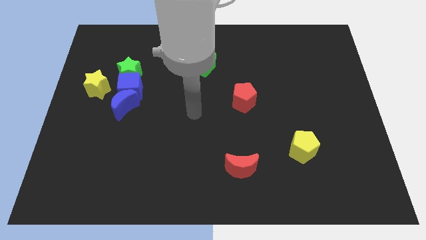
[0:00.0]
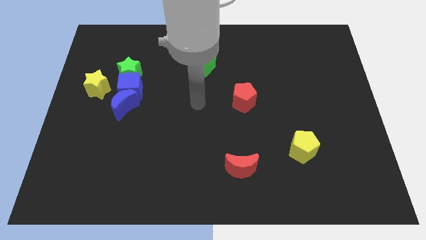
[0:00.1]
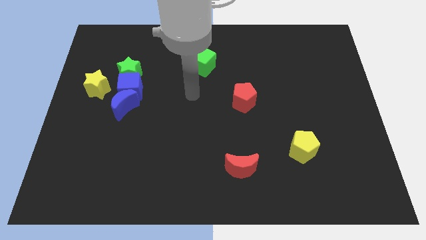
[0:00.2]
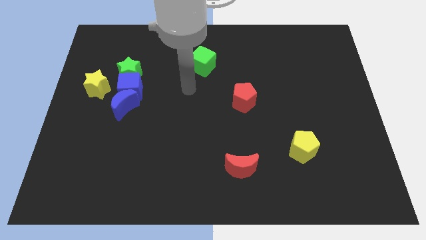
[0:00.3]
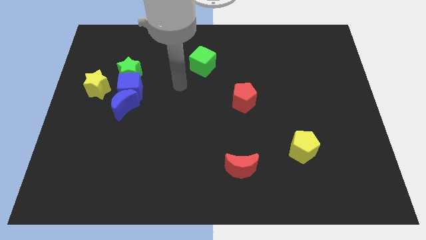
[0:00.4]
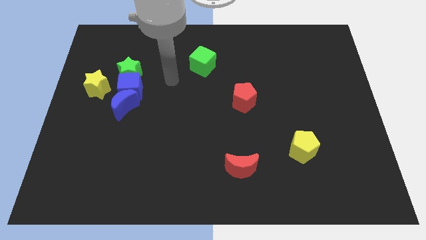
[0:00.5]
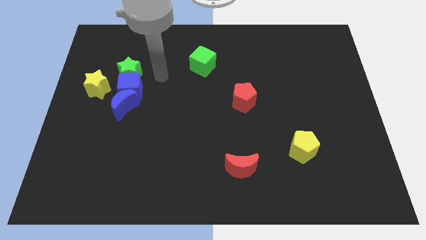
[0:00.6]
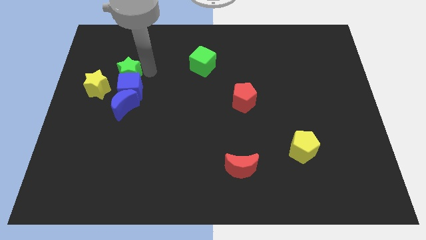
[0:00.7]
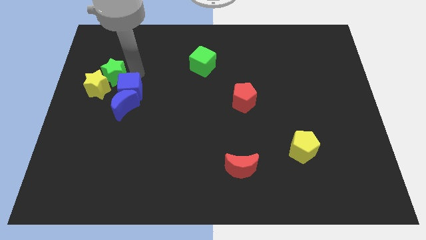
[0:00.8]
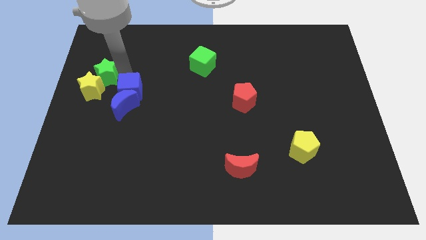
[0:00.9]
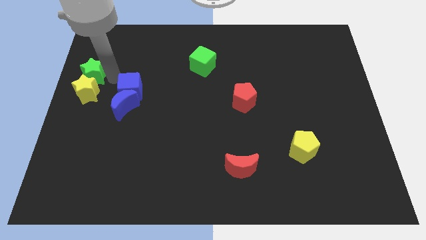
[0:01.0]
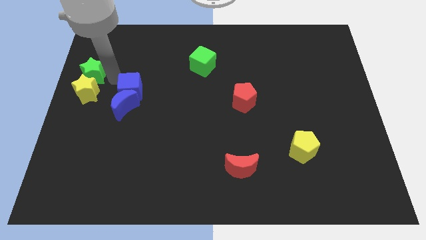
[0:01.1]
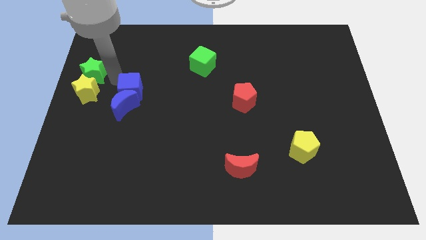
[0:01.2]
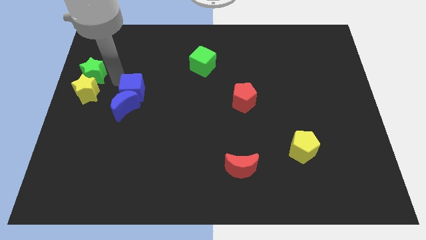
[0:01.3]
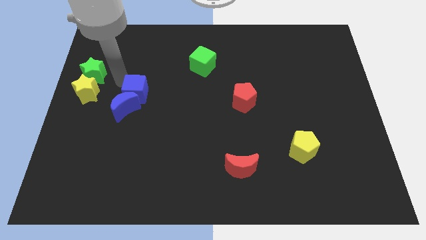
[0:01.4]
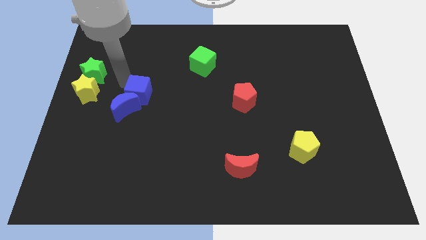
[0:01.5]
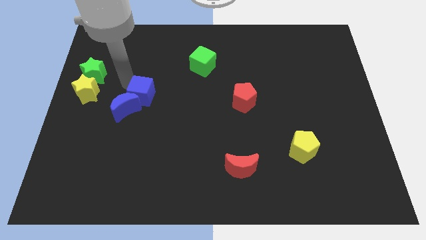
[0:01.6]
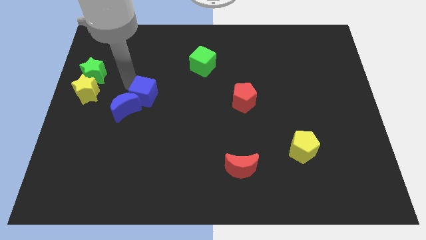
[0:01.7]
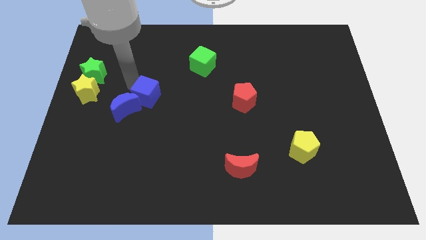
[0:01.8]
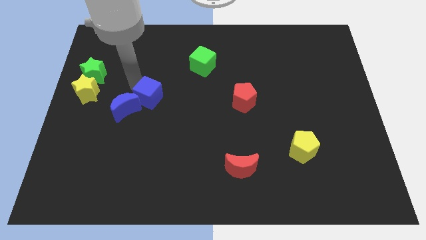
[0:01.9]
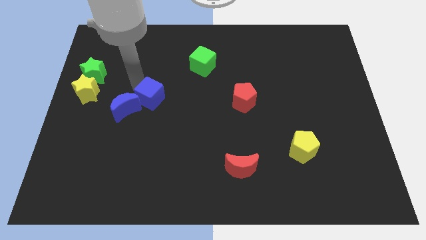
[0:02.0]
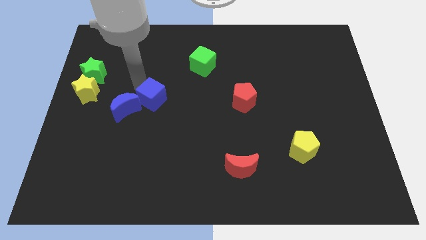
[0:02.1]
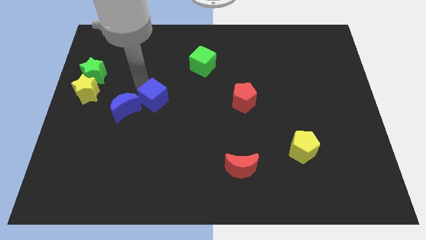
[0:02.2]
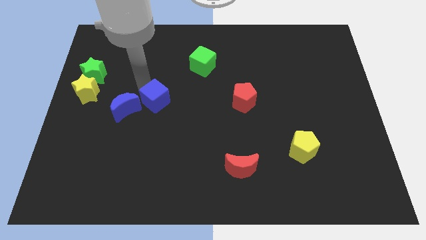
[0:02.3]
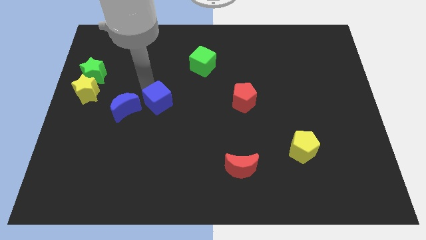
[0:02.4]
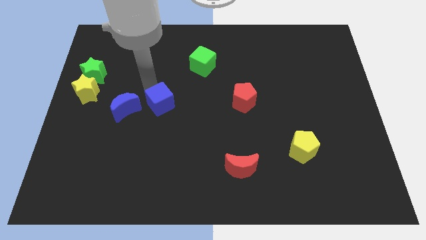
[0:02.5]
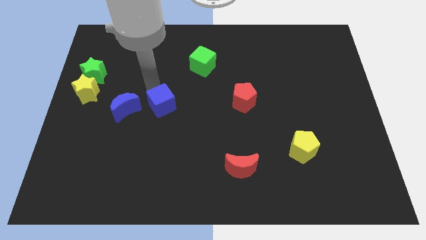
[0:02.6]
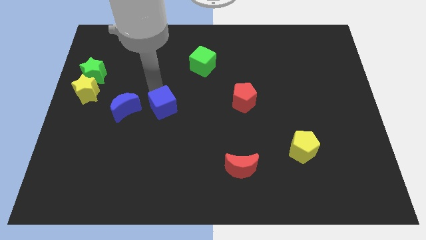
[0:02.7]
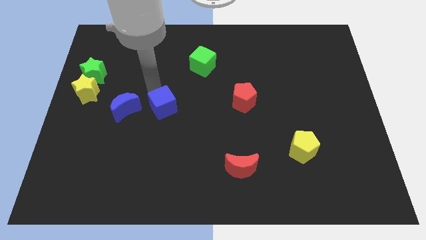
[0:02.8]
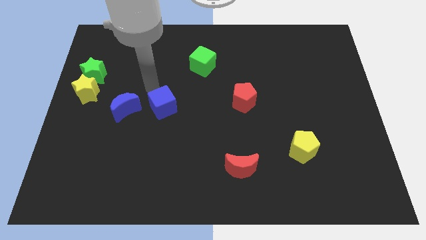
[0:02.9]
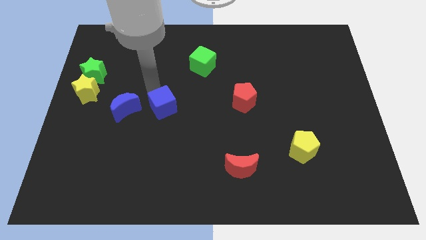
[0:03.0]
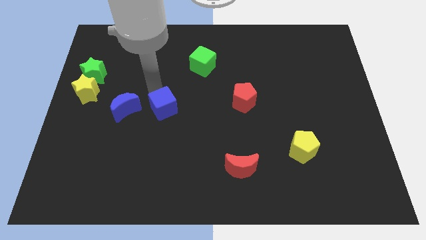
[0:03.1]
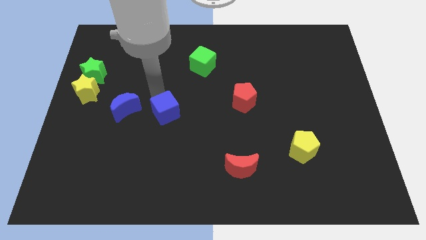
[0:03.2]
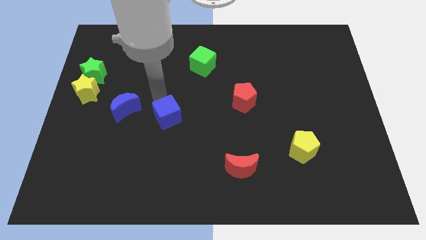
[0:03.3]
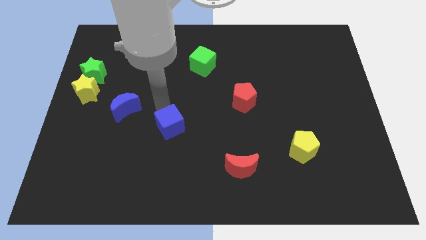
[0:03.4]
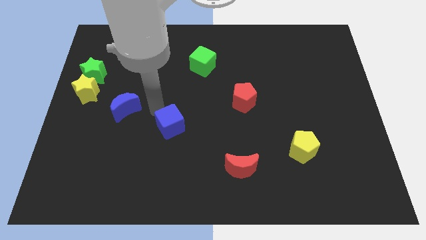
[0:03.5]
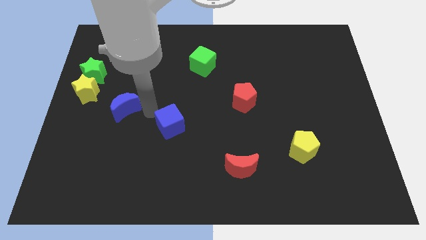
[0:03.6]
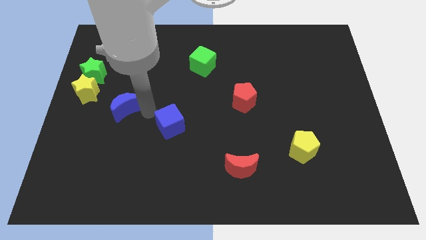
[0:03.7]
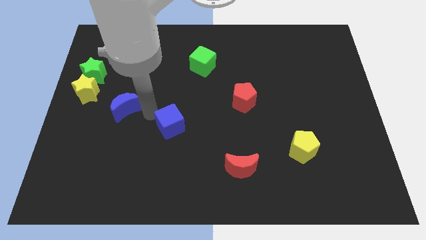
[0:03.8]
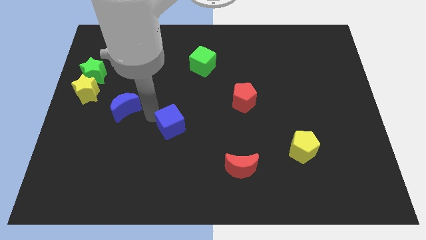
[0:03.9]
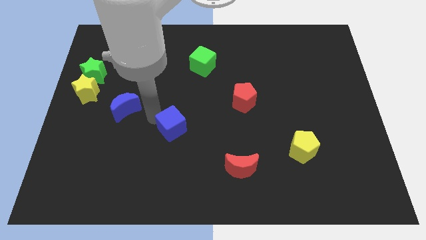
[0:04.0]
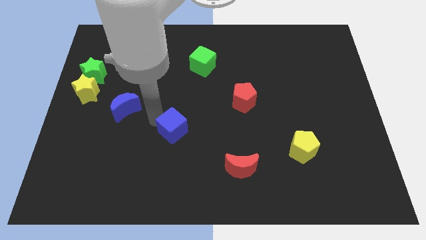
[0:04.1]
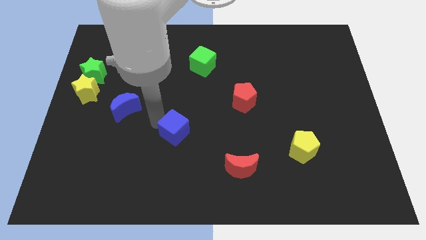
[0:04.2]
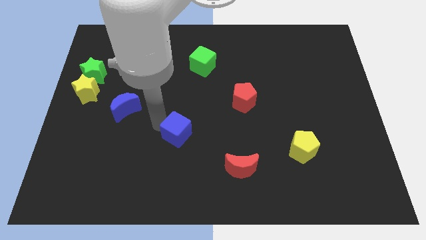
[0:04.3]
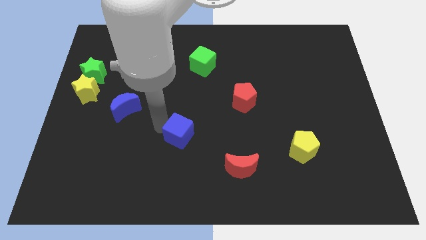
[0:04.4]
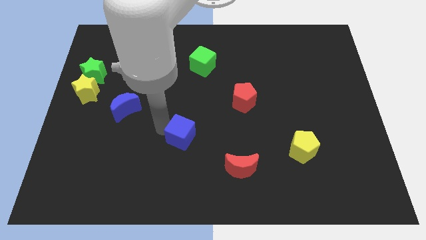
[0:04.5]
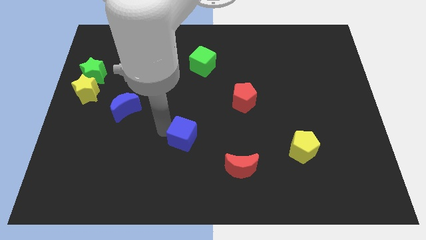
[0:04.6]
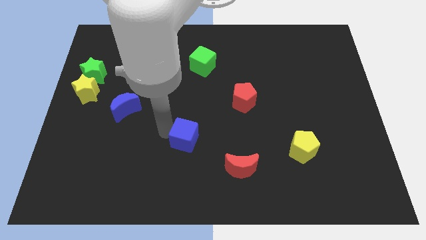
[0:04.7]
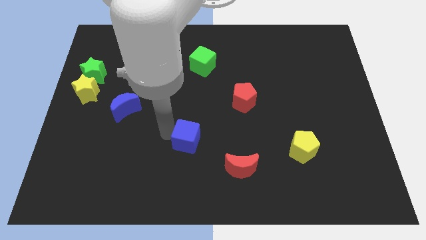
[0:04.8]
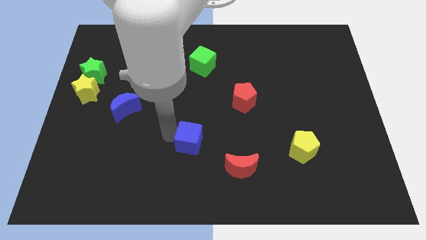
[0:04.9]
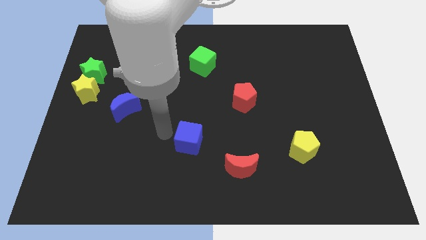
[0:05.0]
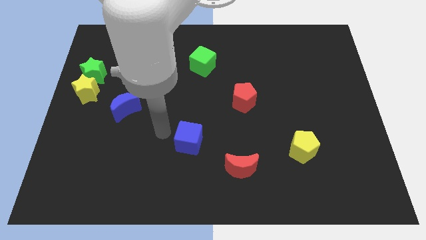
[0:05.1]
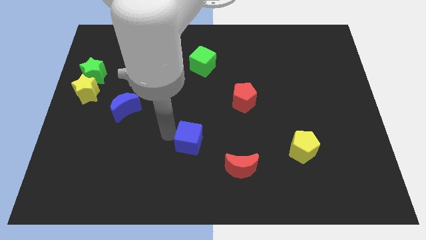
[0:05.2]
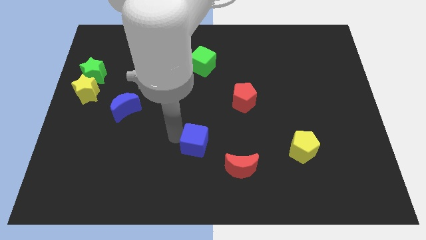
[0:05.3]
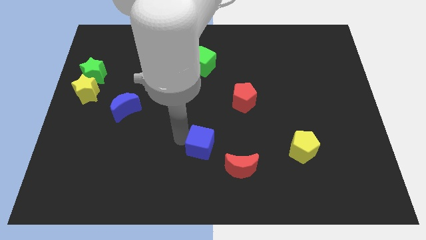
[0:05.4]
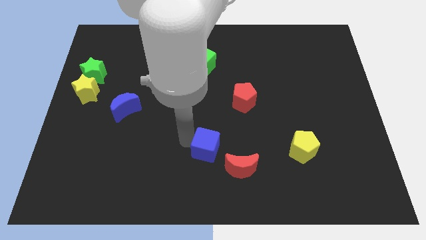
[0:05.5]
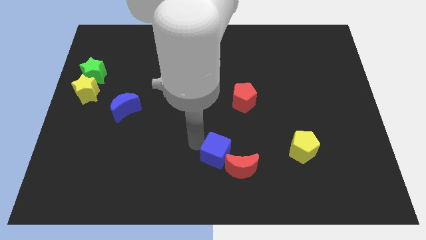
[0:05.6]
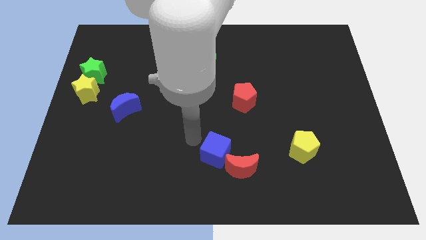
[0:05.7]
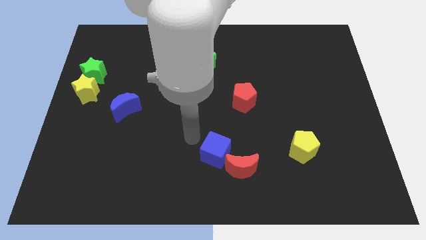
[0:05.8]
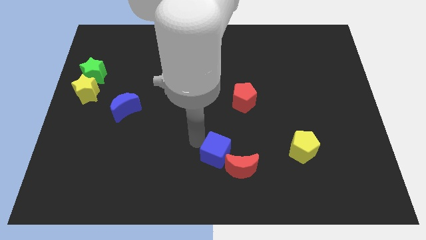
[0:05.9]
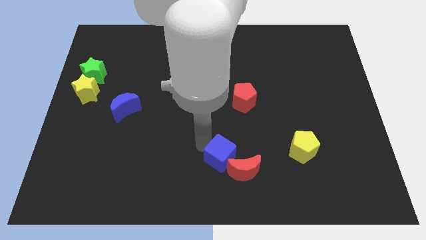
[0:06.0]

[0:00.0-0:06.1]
move the blue cube towards the red moon

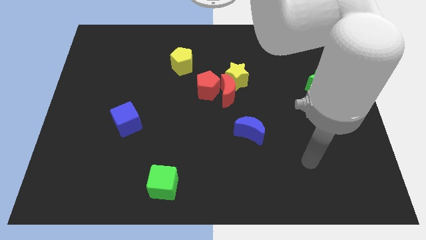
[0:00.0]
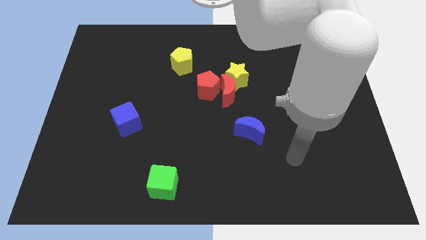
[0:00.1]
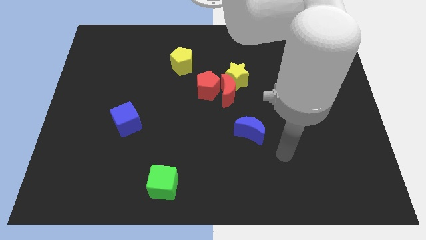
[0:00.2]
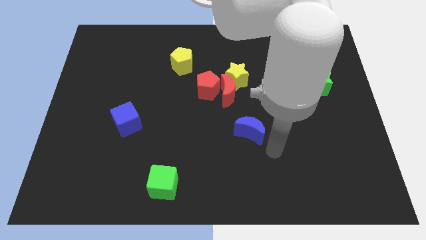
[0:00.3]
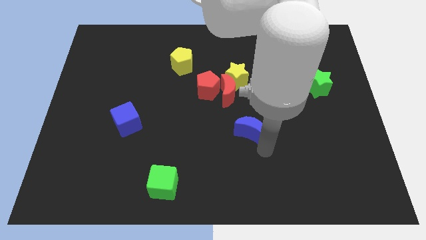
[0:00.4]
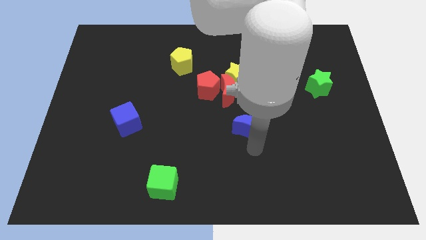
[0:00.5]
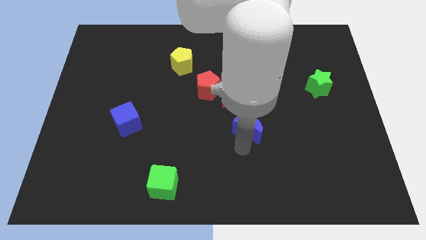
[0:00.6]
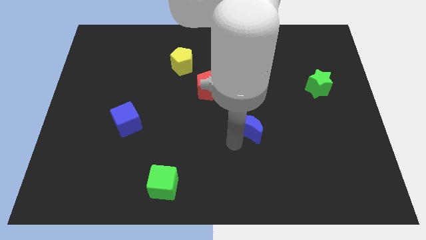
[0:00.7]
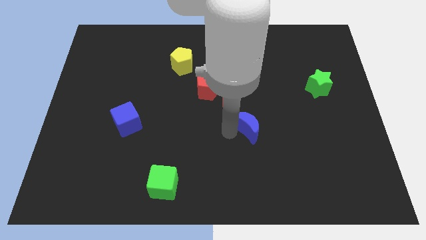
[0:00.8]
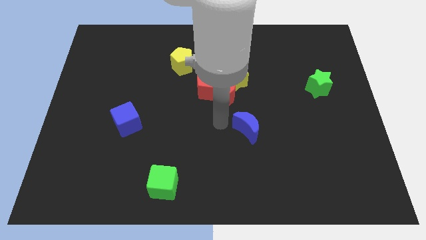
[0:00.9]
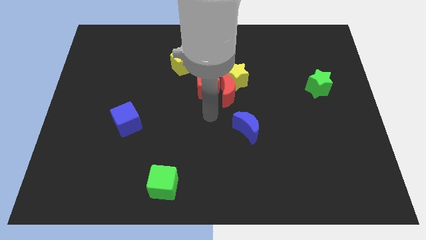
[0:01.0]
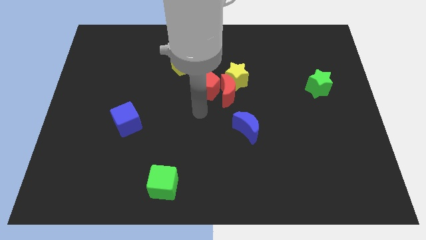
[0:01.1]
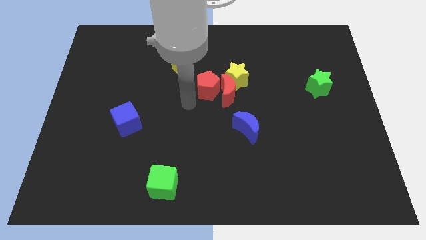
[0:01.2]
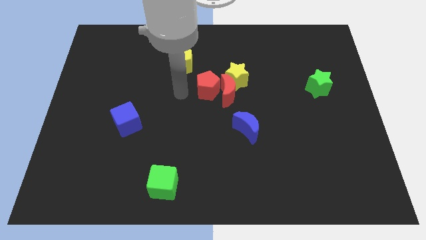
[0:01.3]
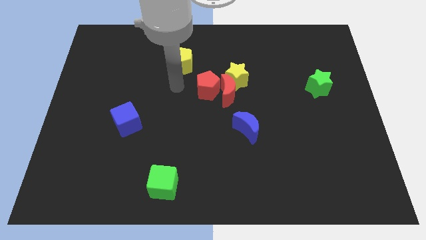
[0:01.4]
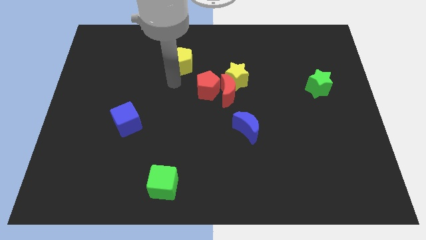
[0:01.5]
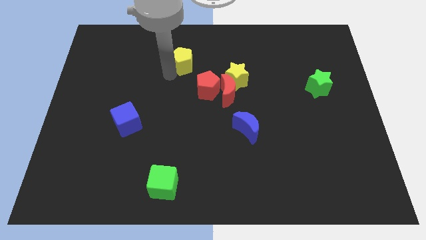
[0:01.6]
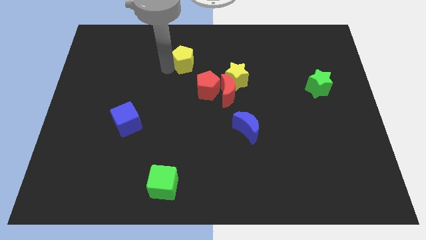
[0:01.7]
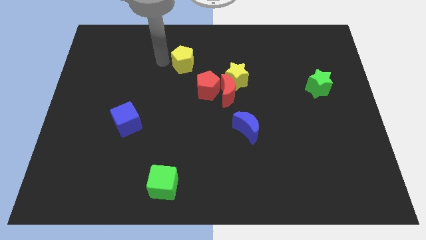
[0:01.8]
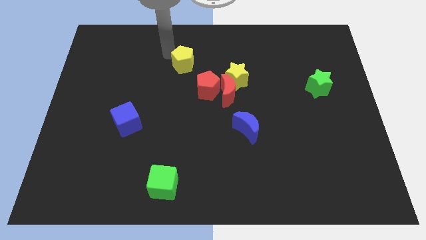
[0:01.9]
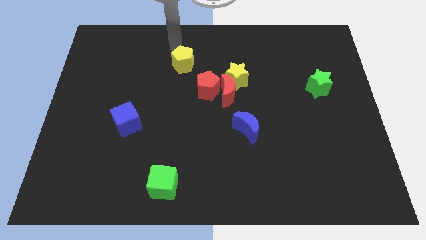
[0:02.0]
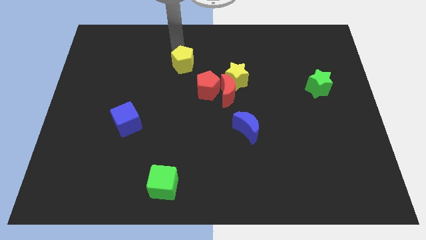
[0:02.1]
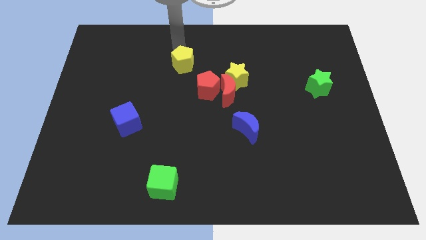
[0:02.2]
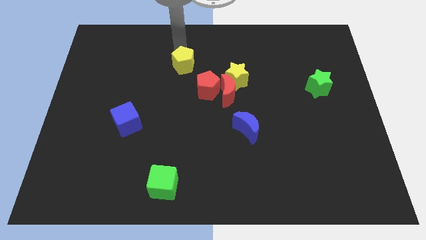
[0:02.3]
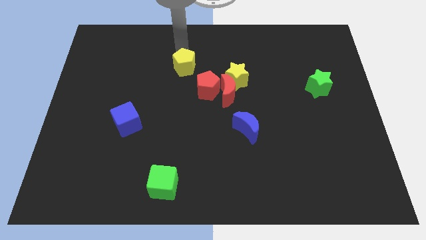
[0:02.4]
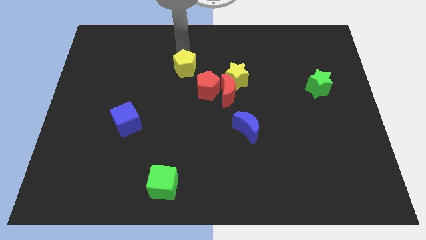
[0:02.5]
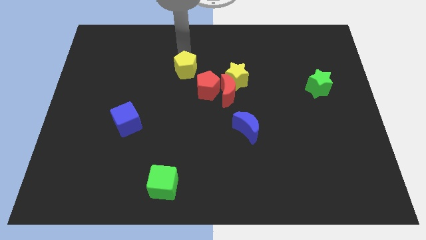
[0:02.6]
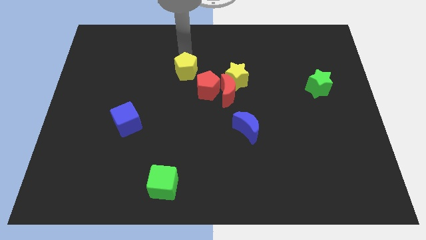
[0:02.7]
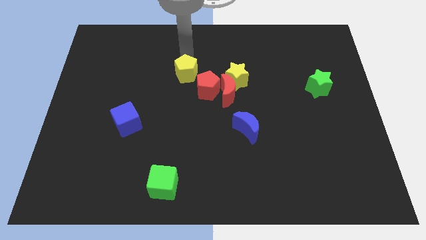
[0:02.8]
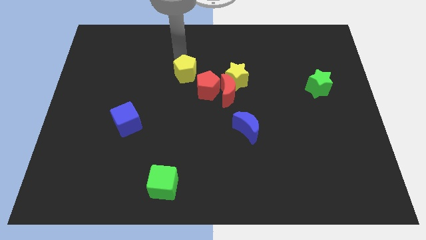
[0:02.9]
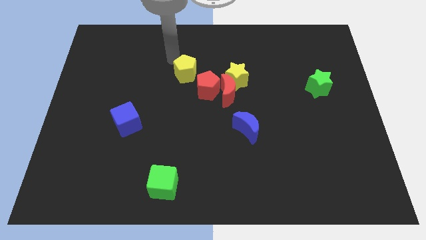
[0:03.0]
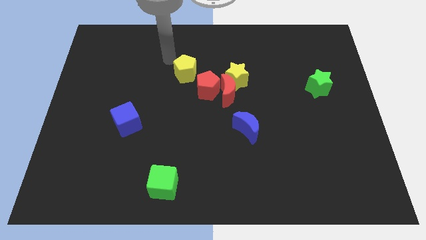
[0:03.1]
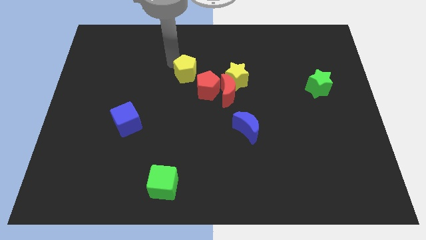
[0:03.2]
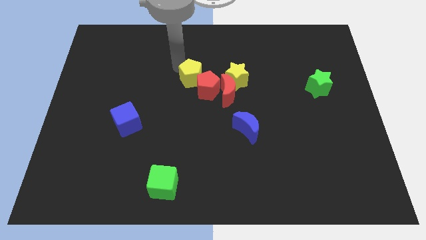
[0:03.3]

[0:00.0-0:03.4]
put the yellow pentagon close to the red pentagon
